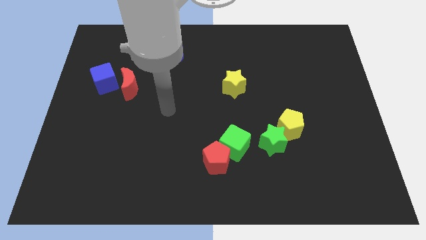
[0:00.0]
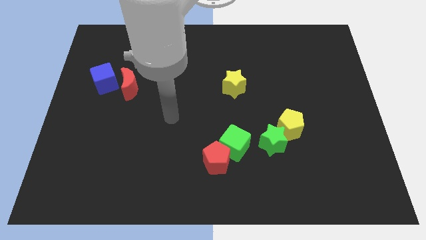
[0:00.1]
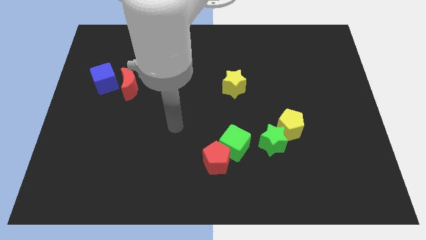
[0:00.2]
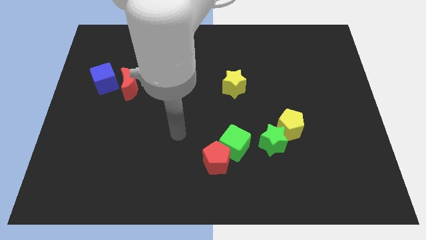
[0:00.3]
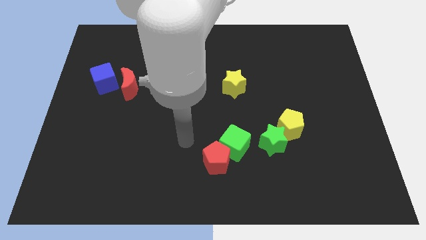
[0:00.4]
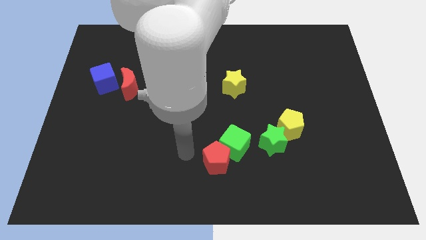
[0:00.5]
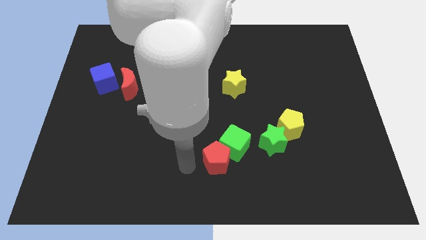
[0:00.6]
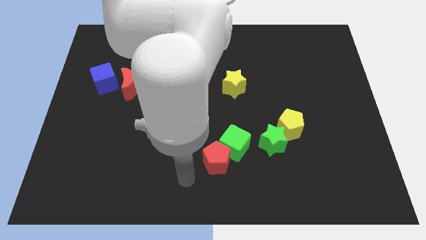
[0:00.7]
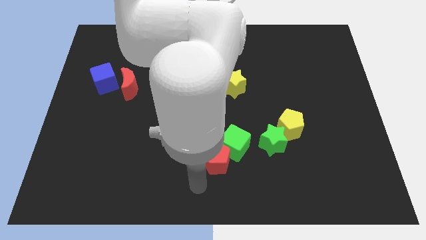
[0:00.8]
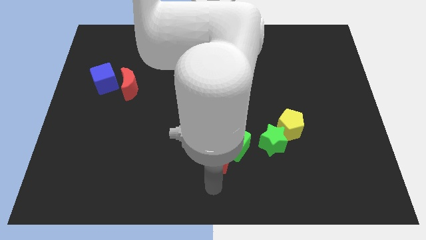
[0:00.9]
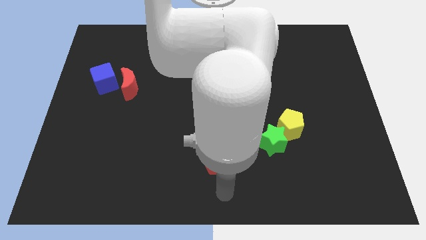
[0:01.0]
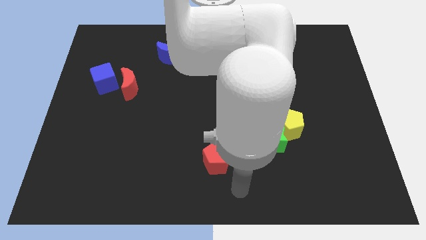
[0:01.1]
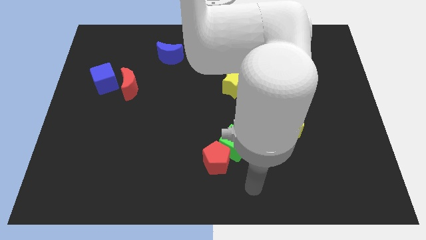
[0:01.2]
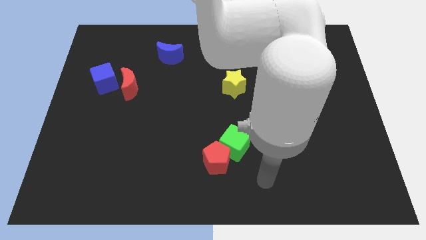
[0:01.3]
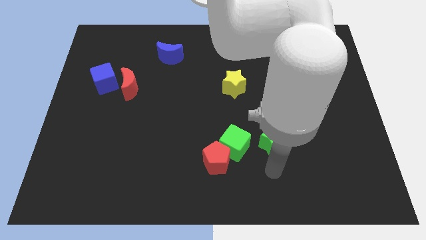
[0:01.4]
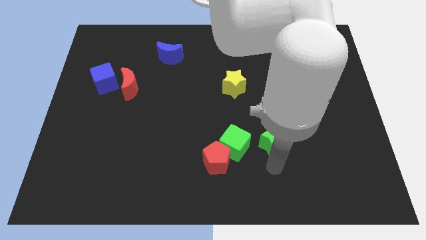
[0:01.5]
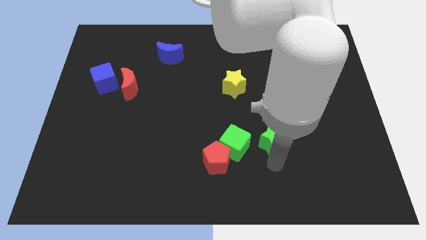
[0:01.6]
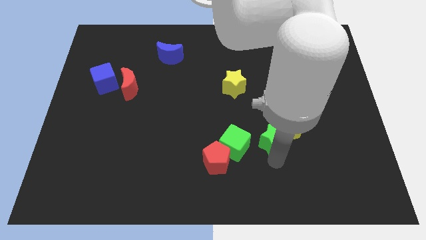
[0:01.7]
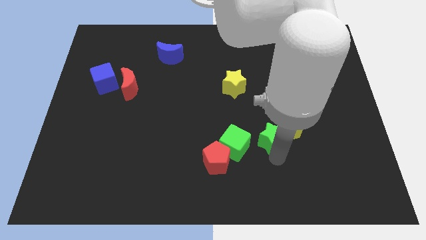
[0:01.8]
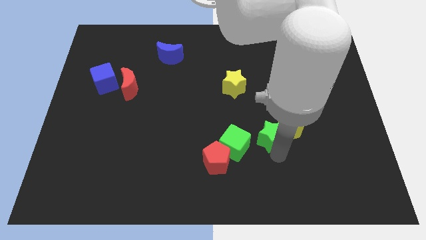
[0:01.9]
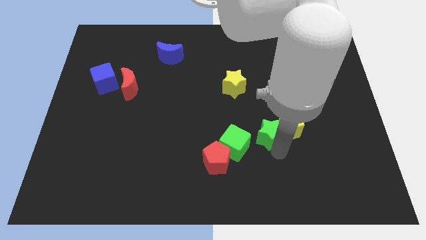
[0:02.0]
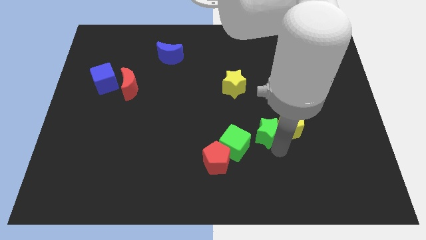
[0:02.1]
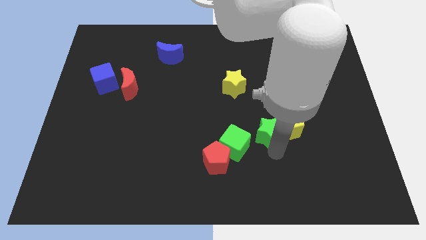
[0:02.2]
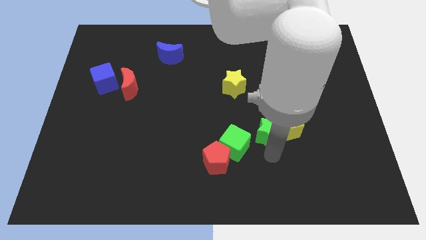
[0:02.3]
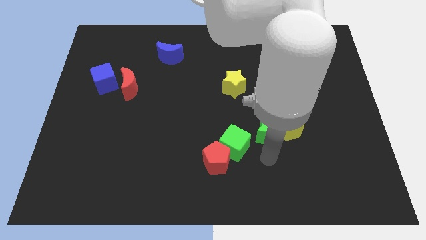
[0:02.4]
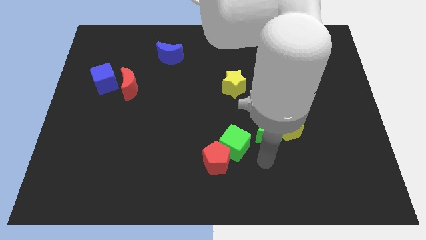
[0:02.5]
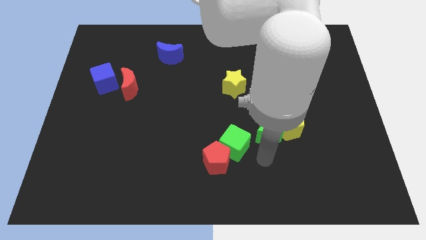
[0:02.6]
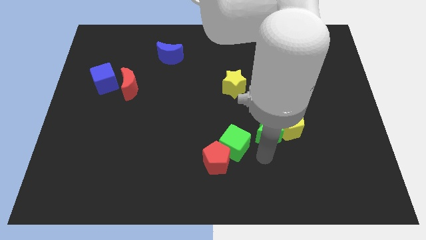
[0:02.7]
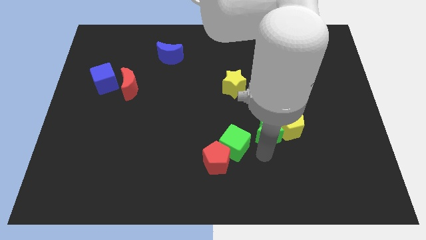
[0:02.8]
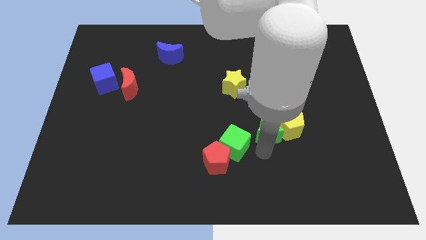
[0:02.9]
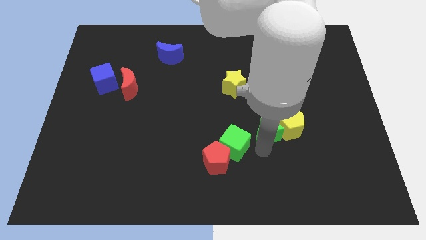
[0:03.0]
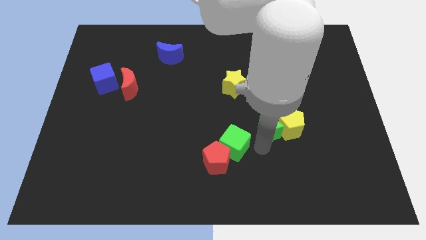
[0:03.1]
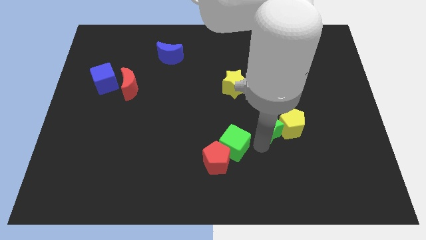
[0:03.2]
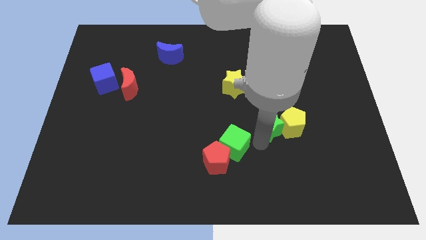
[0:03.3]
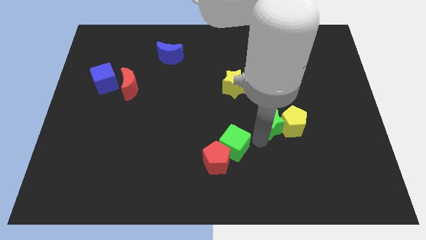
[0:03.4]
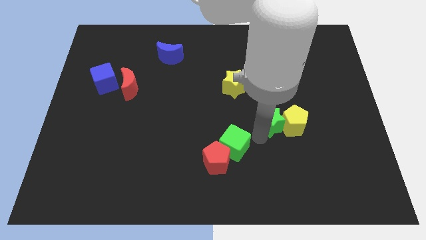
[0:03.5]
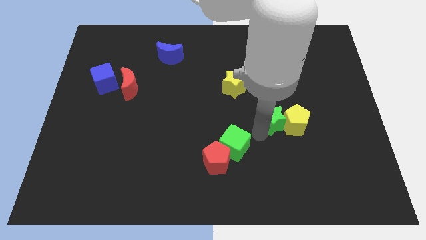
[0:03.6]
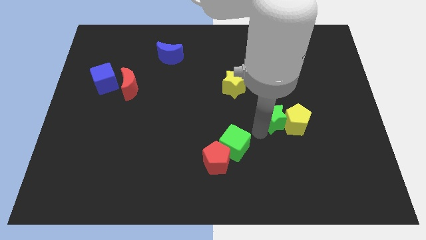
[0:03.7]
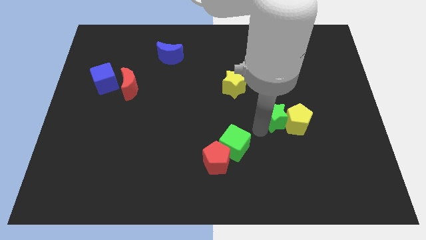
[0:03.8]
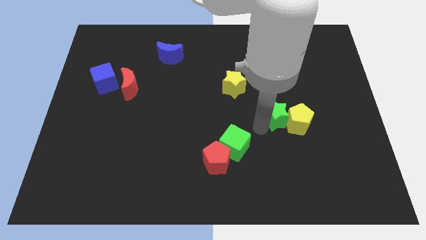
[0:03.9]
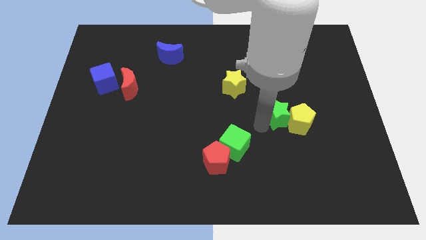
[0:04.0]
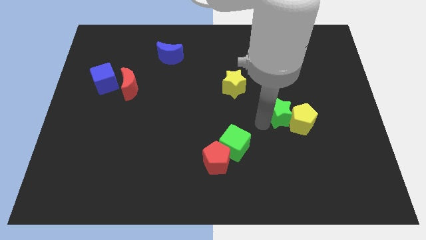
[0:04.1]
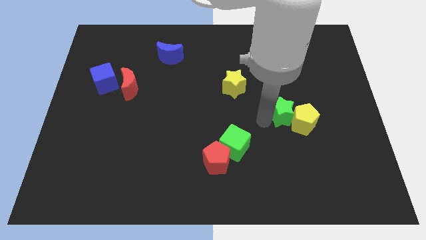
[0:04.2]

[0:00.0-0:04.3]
slightly push the green star diagonally upwards and right

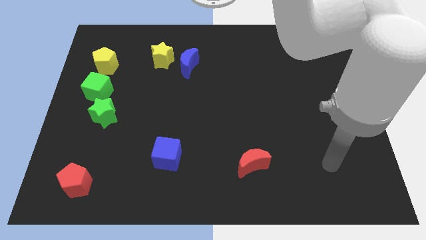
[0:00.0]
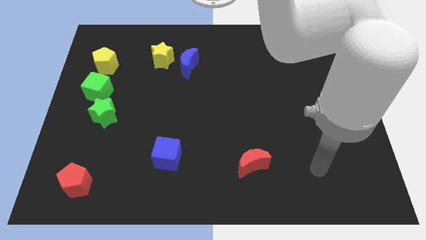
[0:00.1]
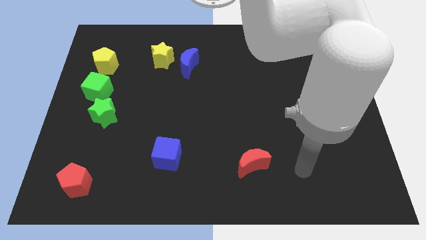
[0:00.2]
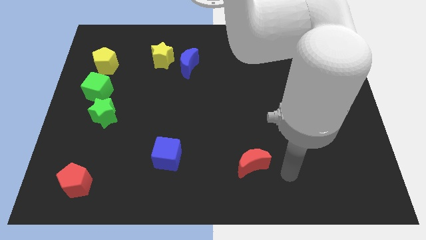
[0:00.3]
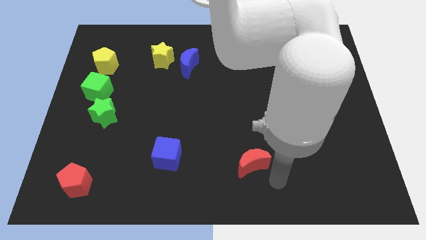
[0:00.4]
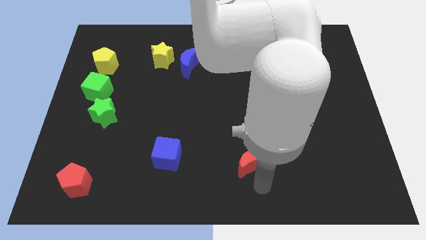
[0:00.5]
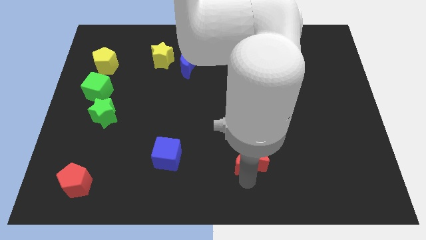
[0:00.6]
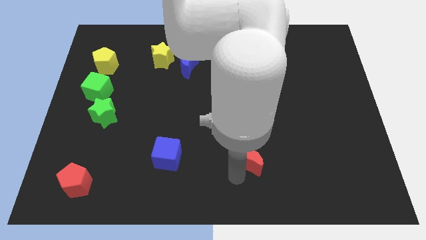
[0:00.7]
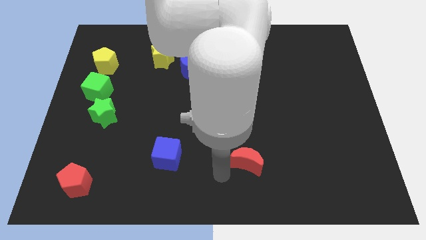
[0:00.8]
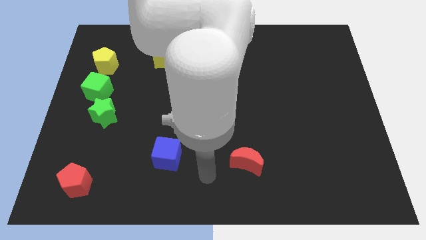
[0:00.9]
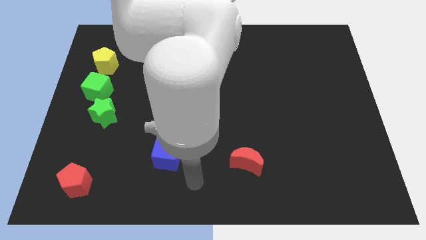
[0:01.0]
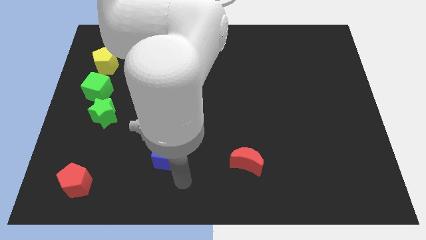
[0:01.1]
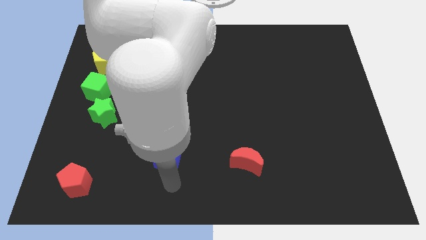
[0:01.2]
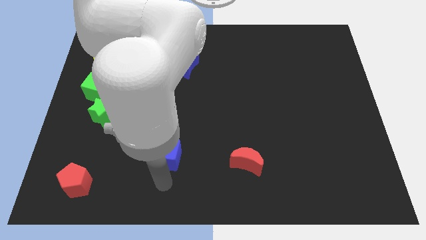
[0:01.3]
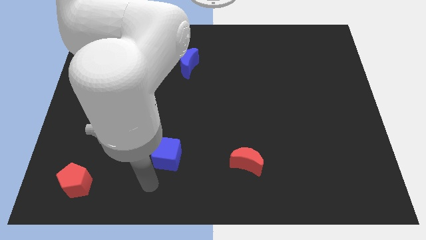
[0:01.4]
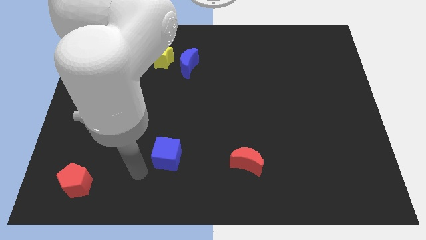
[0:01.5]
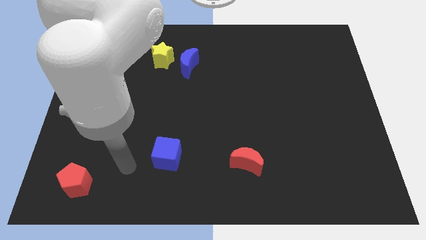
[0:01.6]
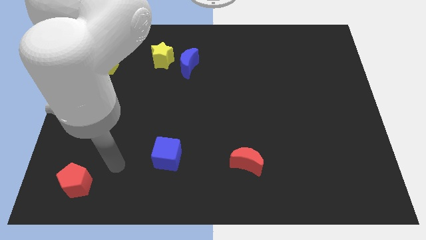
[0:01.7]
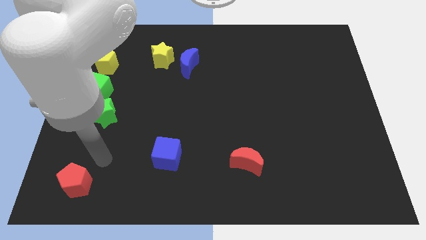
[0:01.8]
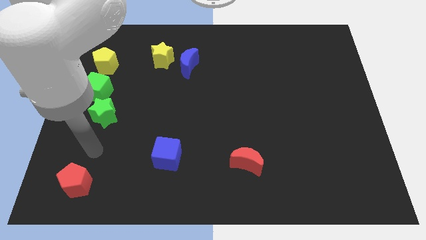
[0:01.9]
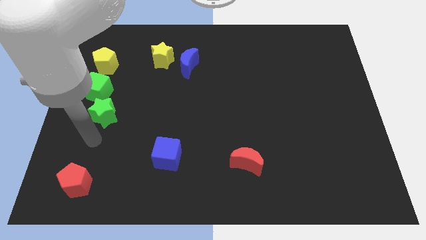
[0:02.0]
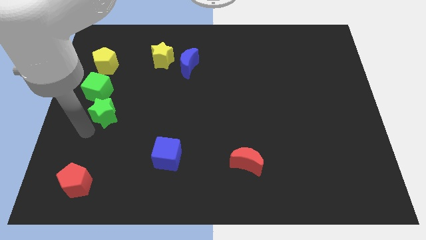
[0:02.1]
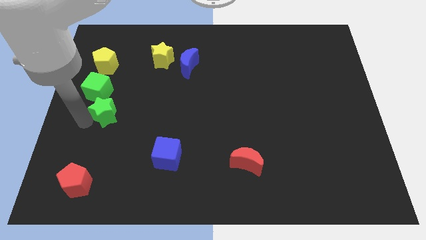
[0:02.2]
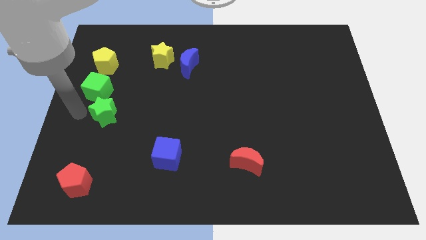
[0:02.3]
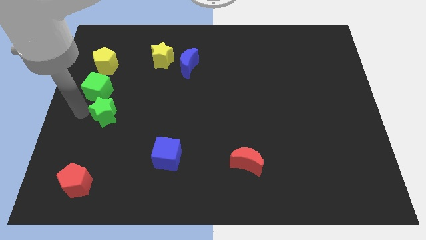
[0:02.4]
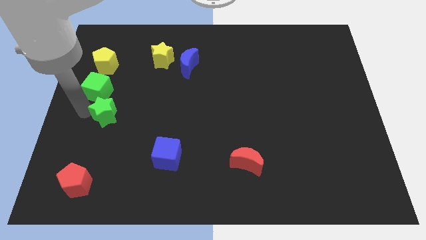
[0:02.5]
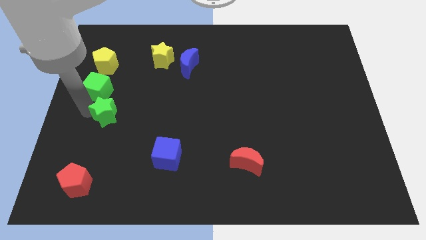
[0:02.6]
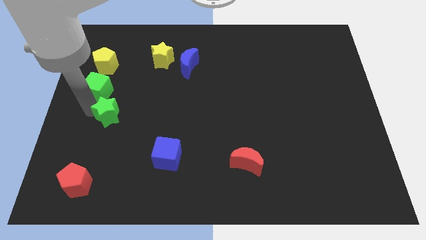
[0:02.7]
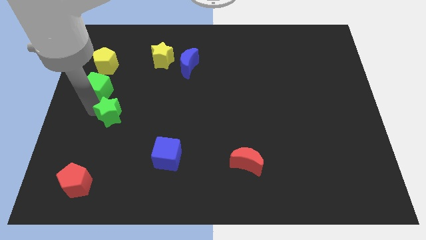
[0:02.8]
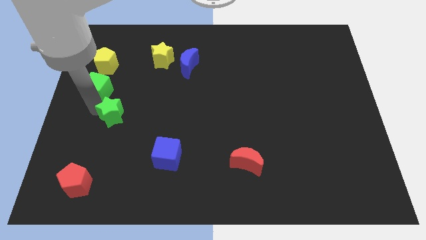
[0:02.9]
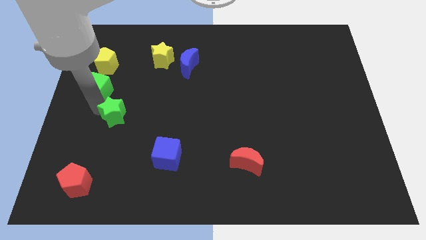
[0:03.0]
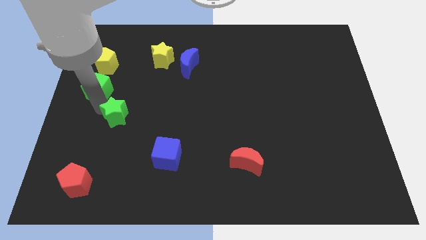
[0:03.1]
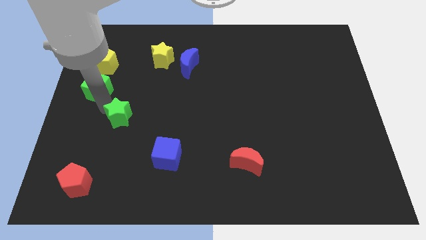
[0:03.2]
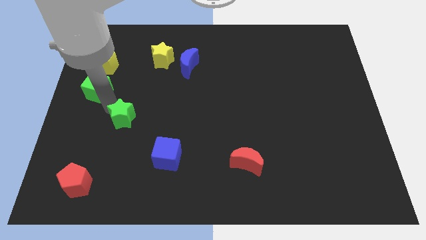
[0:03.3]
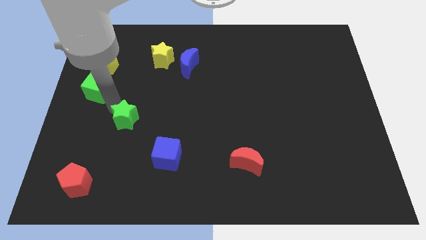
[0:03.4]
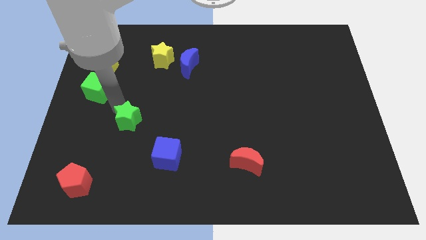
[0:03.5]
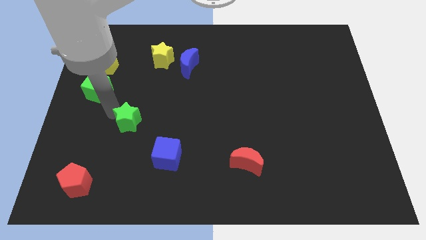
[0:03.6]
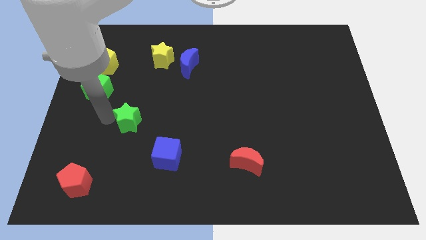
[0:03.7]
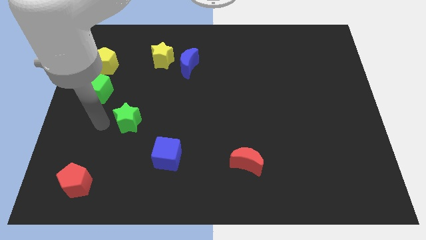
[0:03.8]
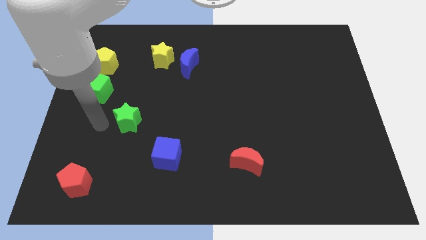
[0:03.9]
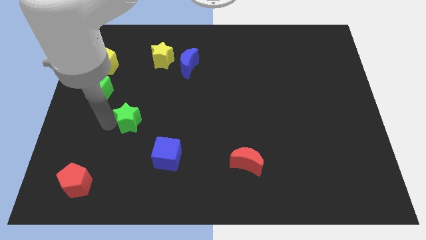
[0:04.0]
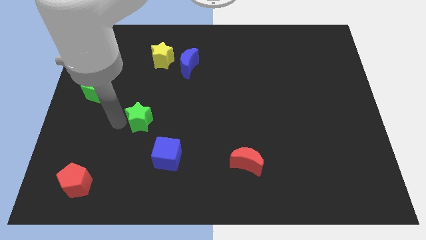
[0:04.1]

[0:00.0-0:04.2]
slightly push the green star to the right
